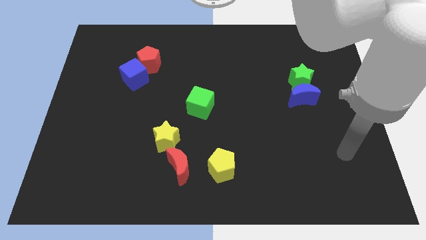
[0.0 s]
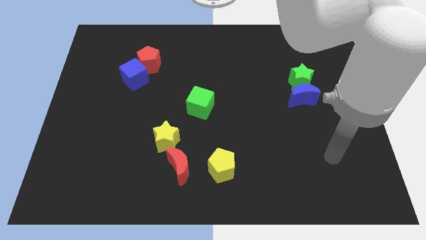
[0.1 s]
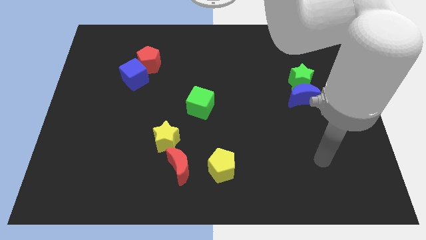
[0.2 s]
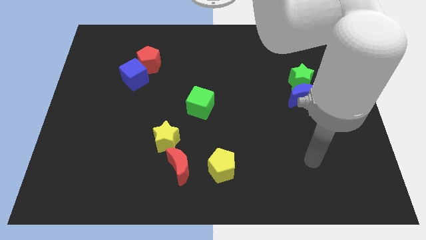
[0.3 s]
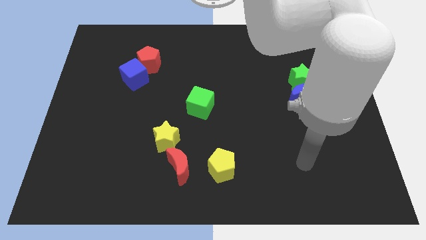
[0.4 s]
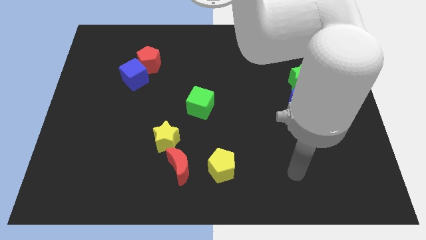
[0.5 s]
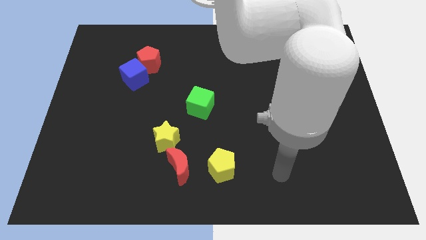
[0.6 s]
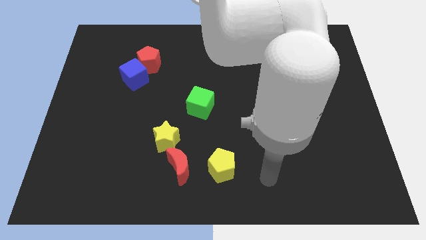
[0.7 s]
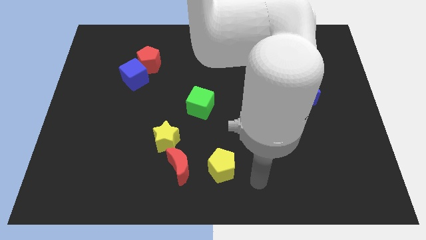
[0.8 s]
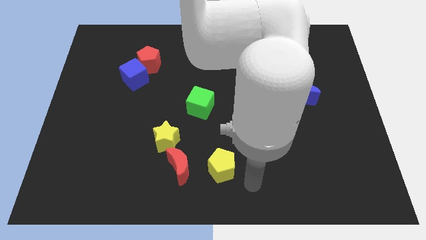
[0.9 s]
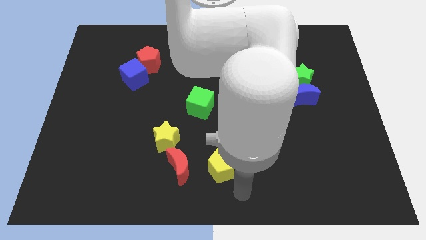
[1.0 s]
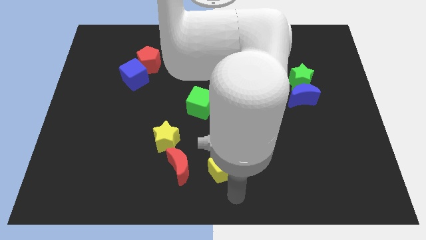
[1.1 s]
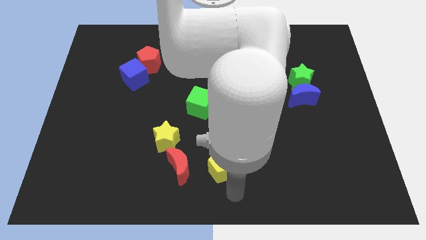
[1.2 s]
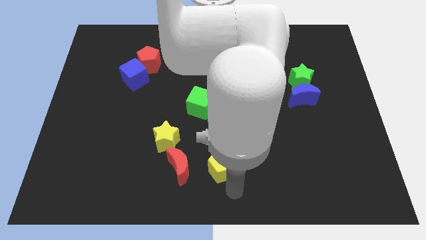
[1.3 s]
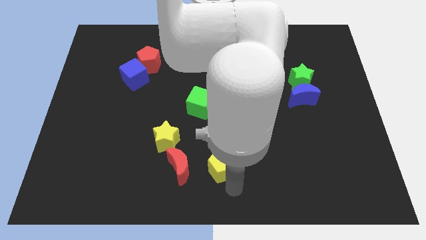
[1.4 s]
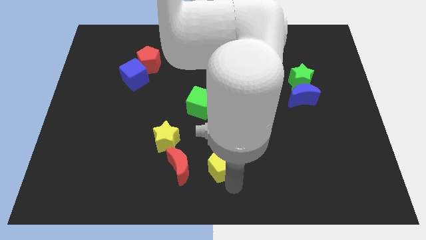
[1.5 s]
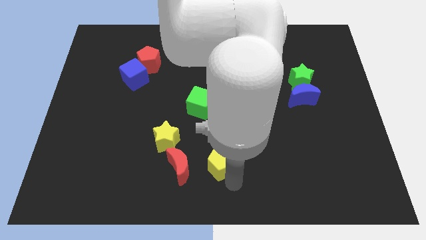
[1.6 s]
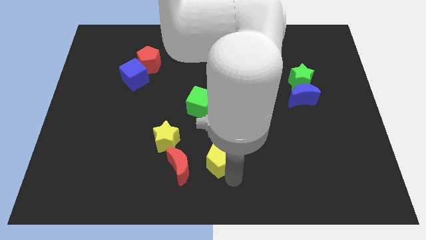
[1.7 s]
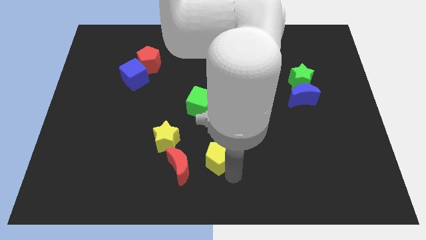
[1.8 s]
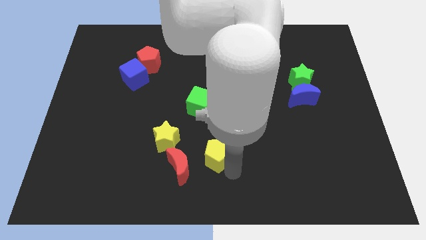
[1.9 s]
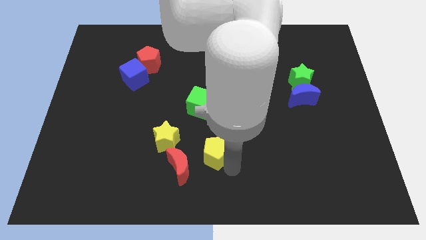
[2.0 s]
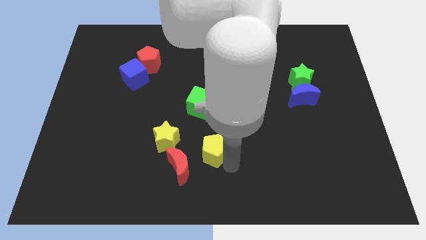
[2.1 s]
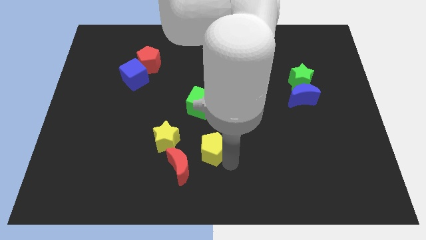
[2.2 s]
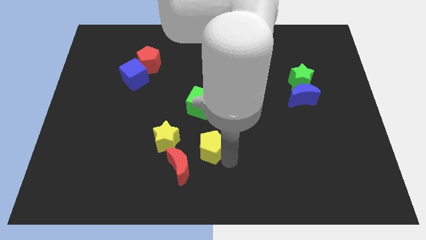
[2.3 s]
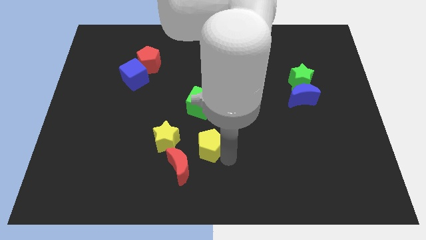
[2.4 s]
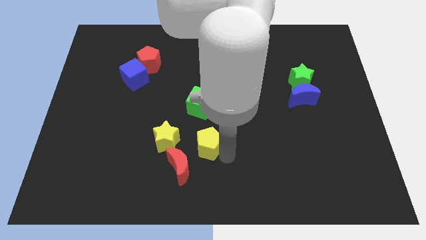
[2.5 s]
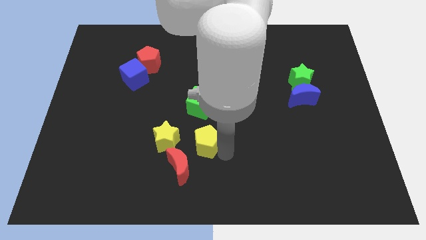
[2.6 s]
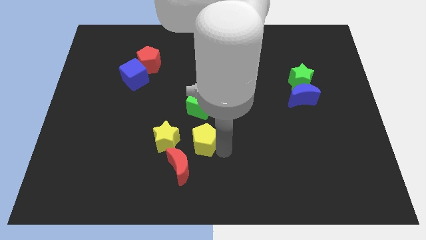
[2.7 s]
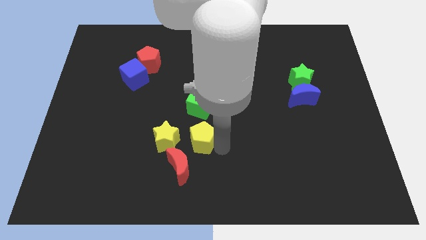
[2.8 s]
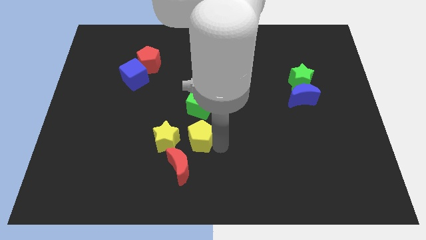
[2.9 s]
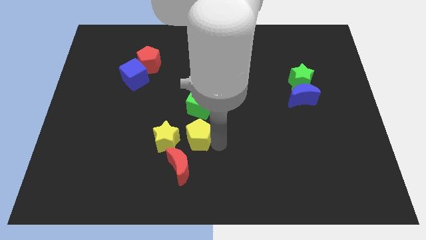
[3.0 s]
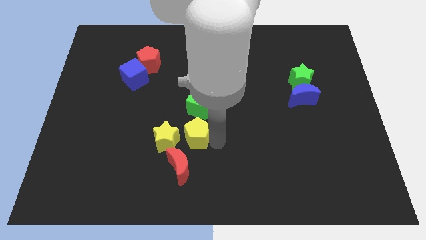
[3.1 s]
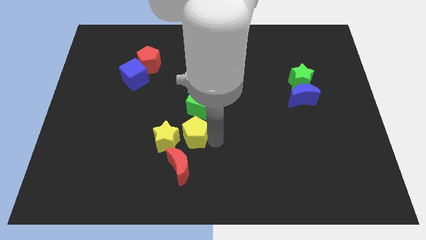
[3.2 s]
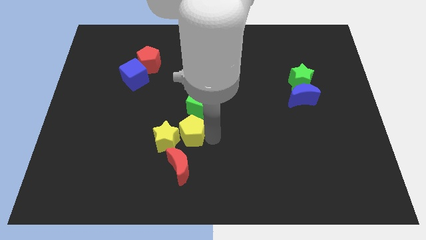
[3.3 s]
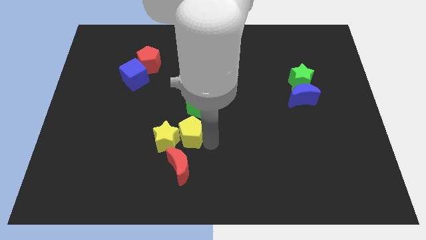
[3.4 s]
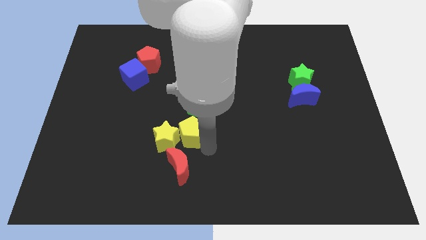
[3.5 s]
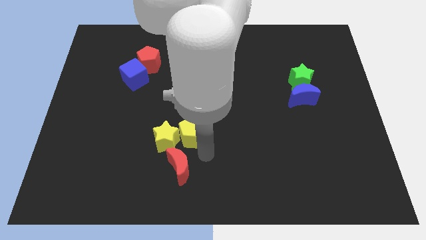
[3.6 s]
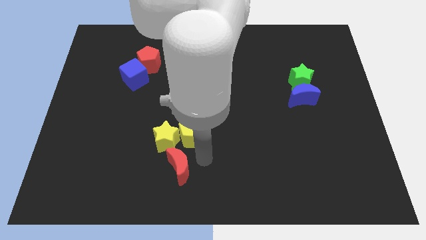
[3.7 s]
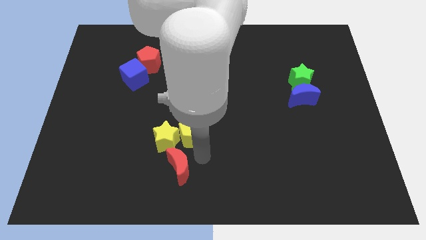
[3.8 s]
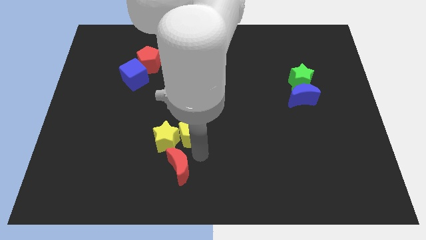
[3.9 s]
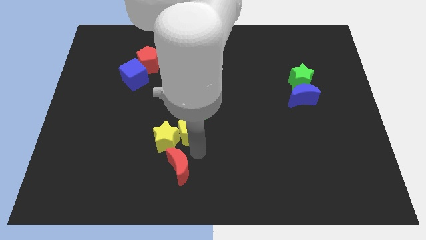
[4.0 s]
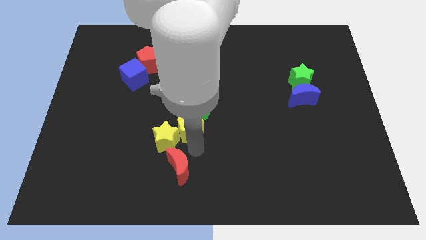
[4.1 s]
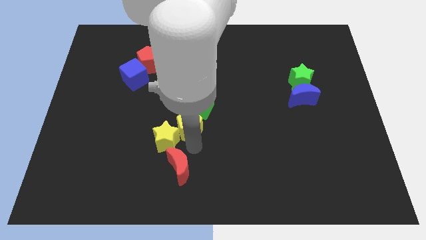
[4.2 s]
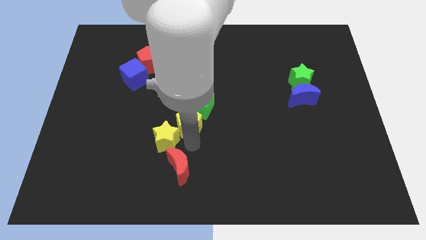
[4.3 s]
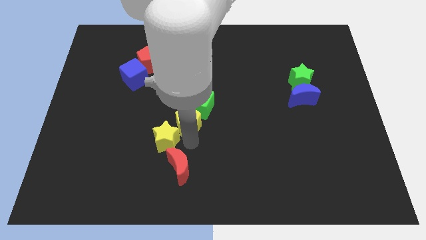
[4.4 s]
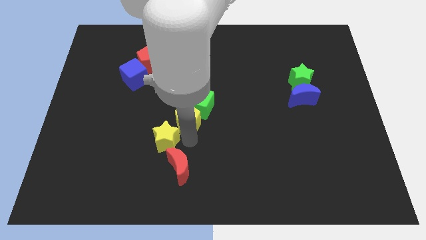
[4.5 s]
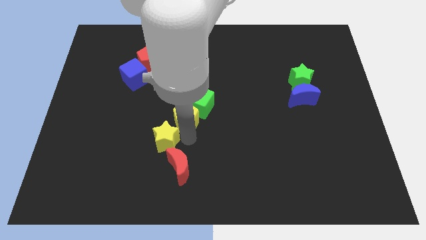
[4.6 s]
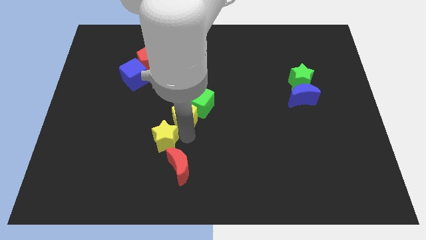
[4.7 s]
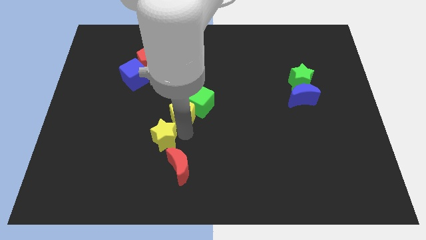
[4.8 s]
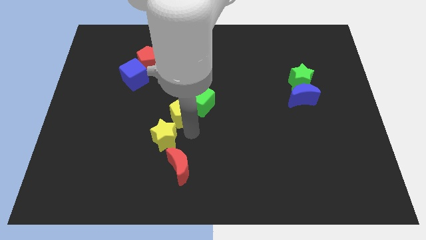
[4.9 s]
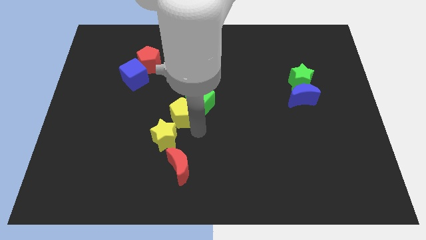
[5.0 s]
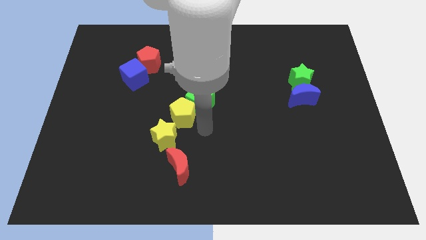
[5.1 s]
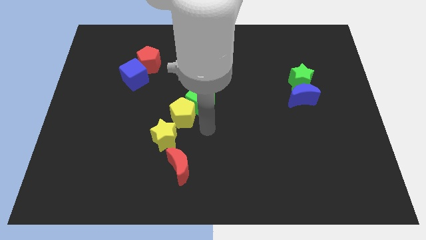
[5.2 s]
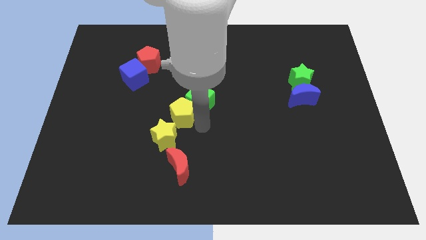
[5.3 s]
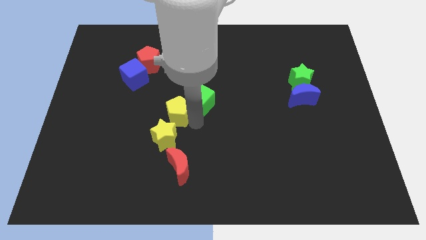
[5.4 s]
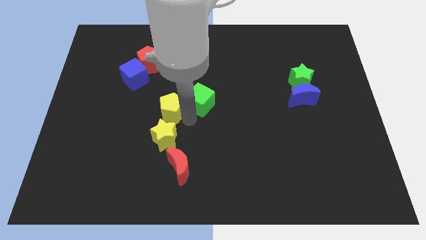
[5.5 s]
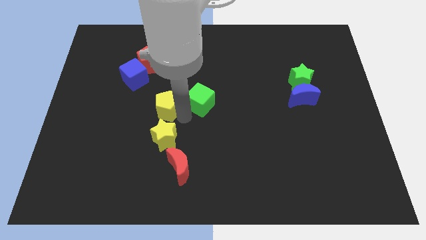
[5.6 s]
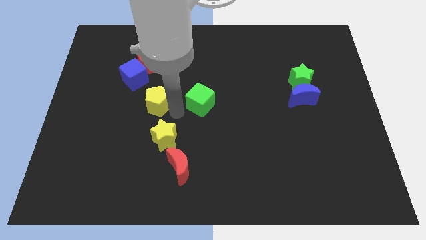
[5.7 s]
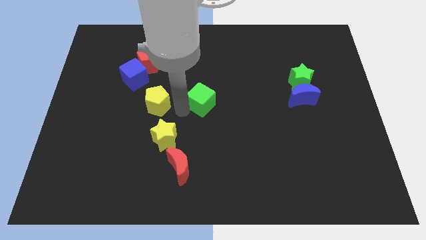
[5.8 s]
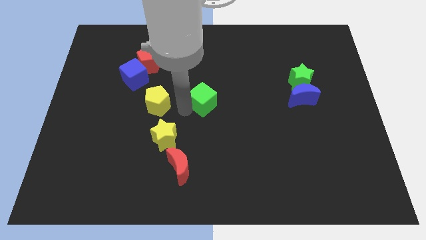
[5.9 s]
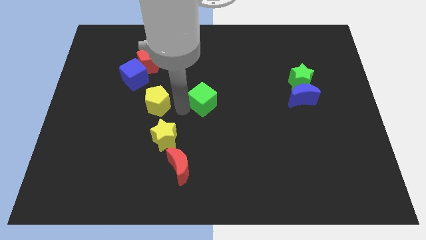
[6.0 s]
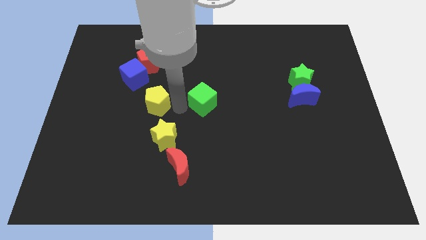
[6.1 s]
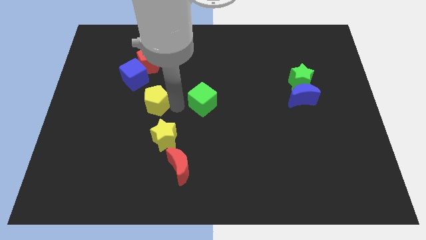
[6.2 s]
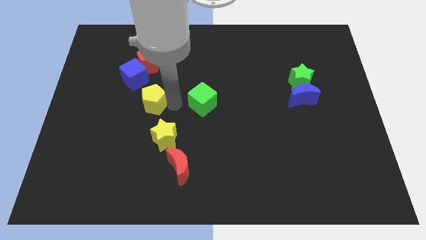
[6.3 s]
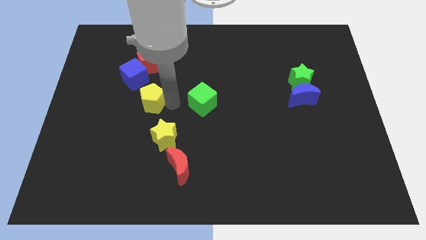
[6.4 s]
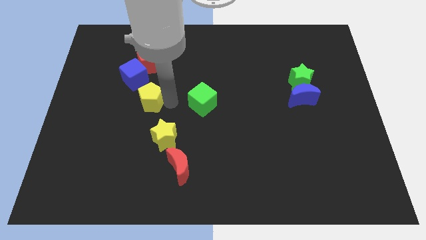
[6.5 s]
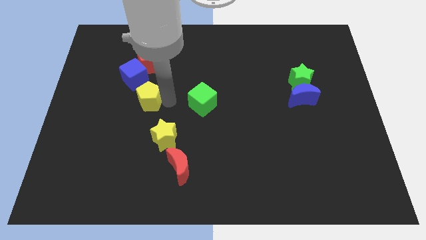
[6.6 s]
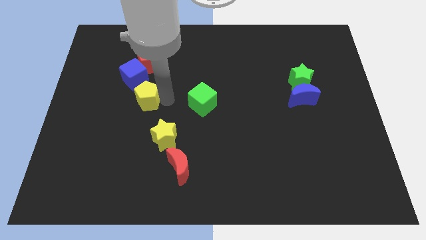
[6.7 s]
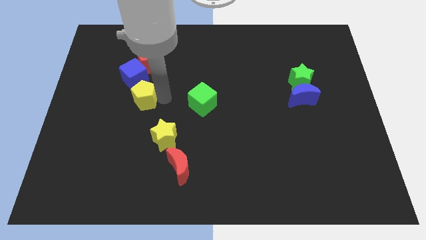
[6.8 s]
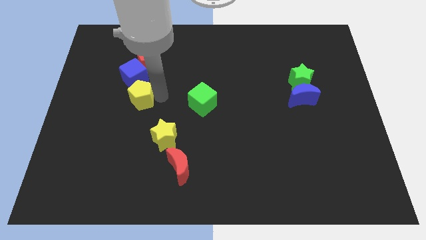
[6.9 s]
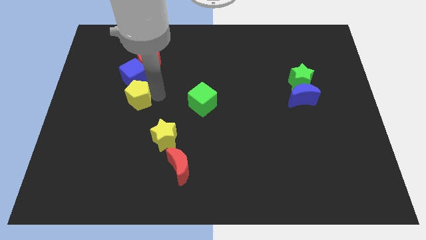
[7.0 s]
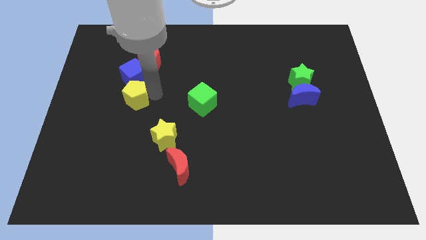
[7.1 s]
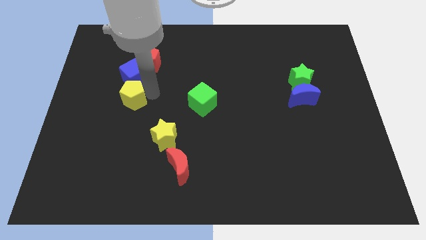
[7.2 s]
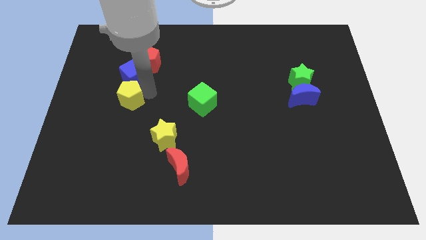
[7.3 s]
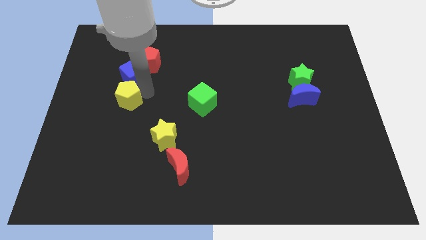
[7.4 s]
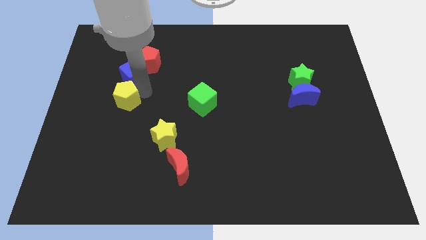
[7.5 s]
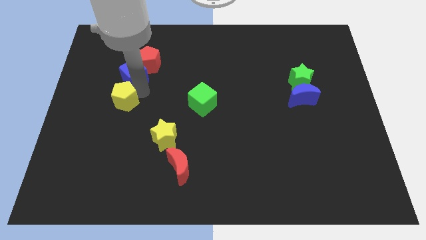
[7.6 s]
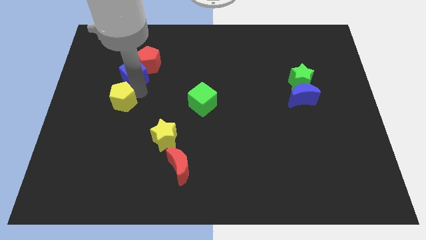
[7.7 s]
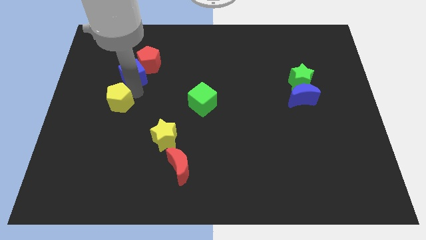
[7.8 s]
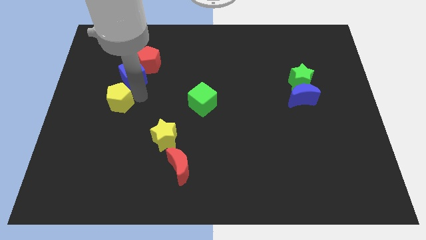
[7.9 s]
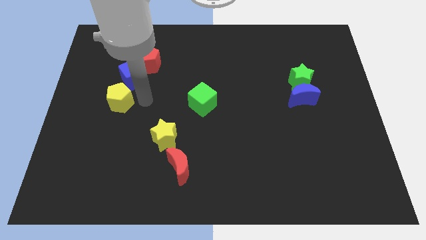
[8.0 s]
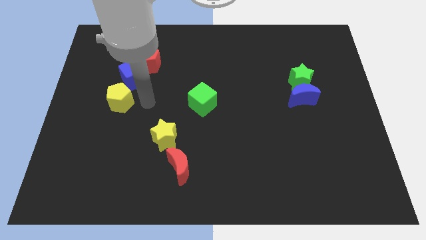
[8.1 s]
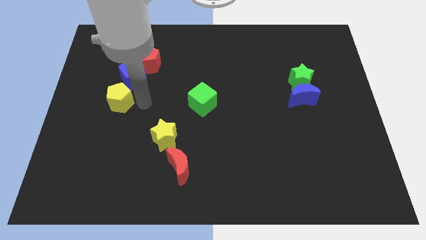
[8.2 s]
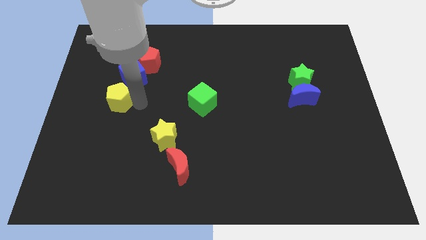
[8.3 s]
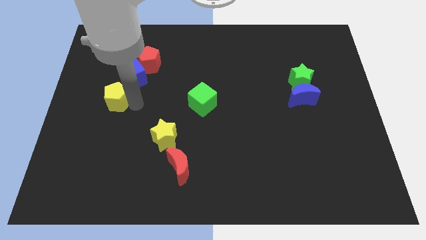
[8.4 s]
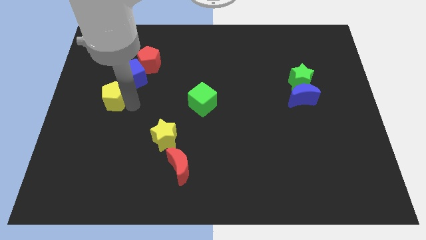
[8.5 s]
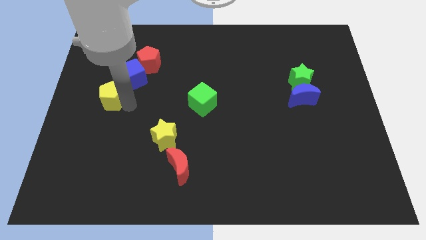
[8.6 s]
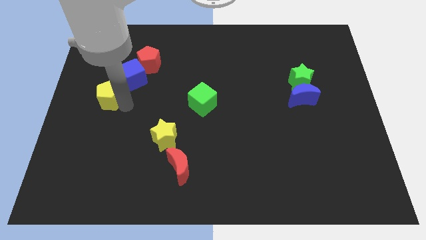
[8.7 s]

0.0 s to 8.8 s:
move the yellow pentagon to the left side of the board
